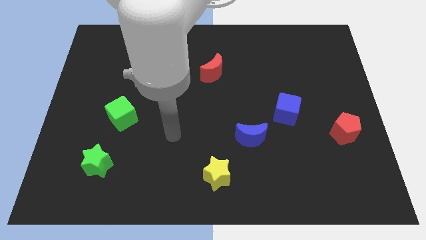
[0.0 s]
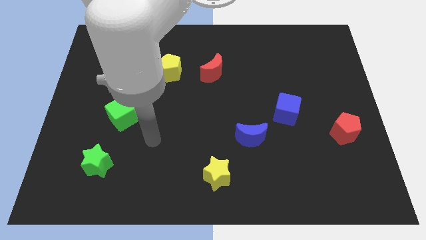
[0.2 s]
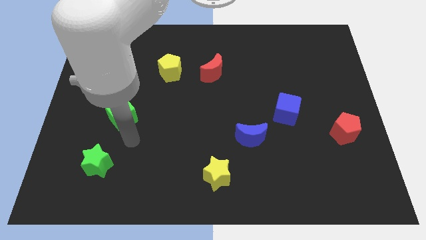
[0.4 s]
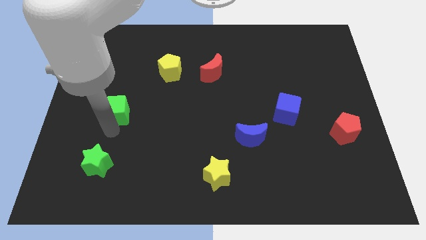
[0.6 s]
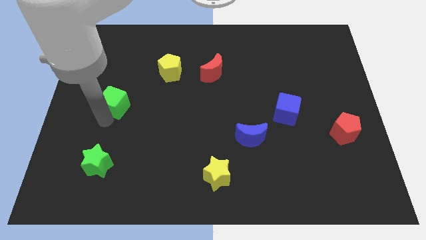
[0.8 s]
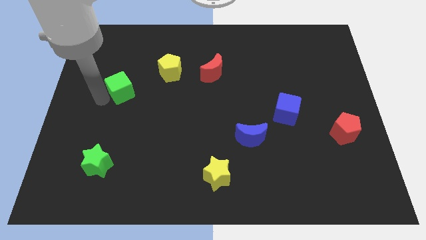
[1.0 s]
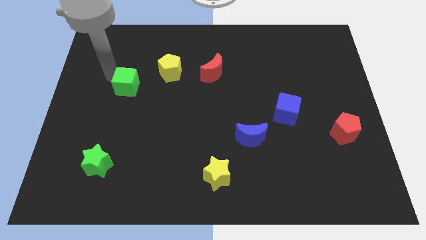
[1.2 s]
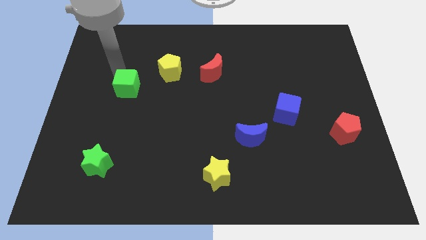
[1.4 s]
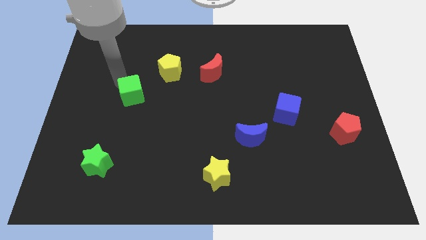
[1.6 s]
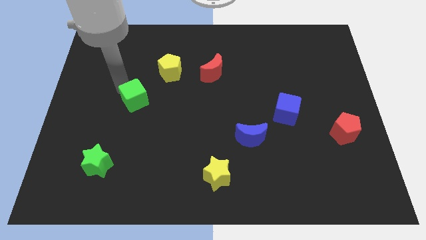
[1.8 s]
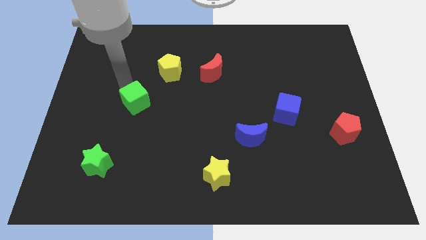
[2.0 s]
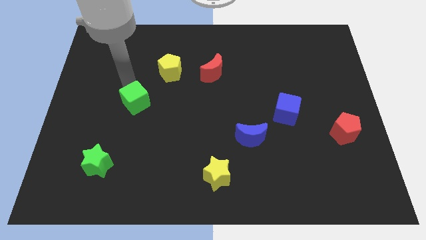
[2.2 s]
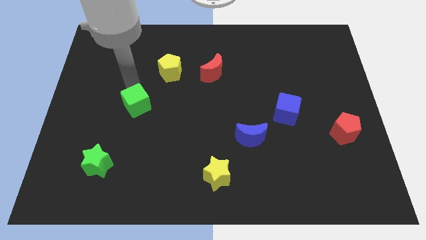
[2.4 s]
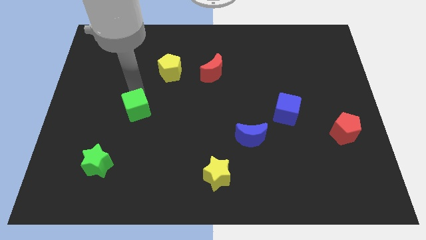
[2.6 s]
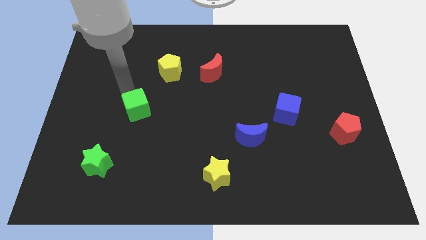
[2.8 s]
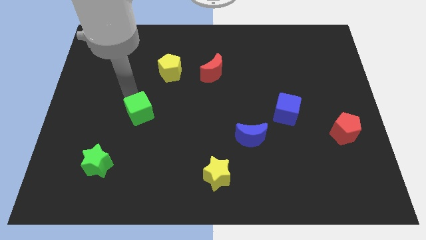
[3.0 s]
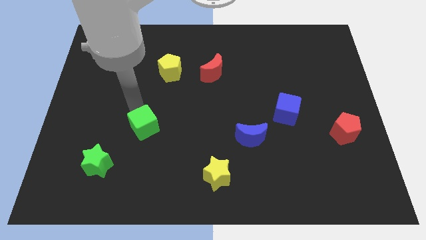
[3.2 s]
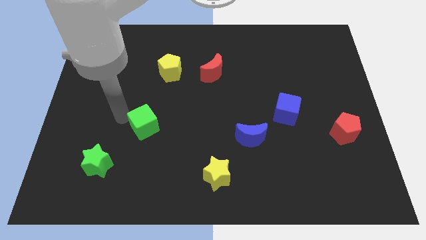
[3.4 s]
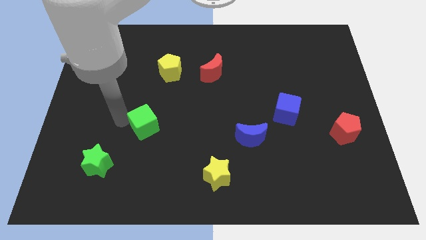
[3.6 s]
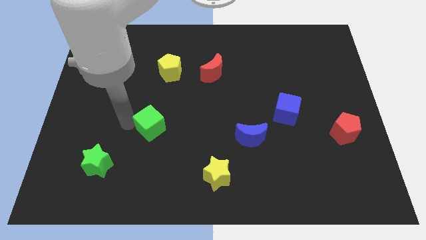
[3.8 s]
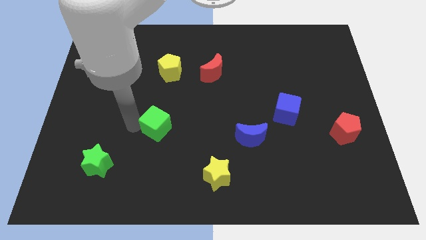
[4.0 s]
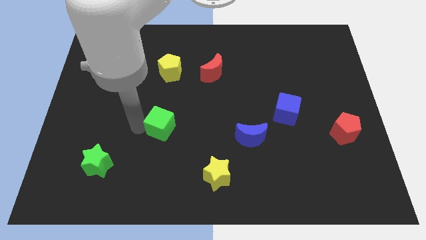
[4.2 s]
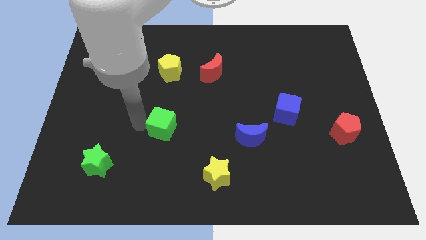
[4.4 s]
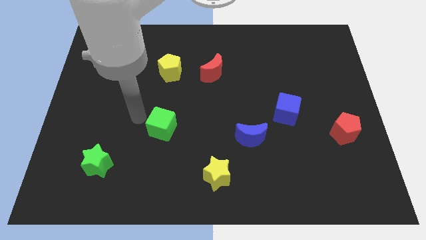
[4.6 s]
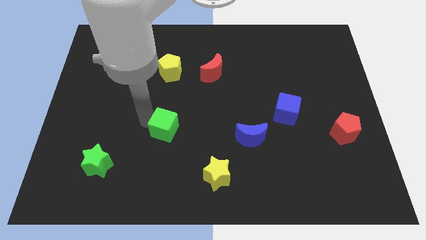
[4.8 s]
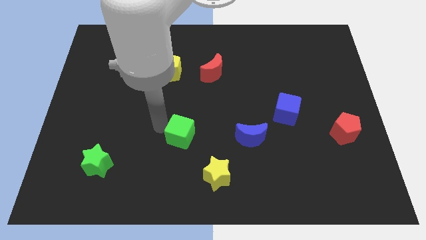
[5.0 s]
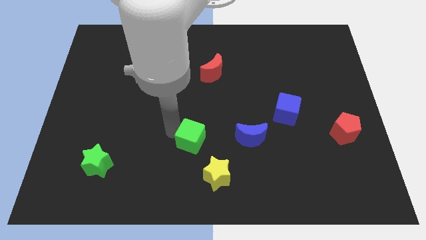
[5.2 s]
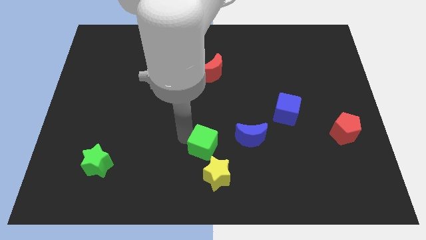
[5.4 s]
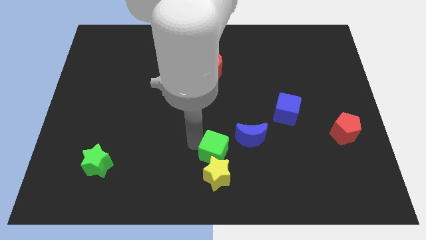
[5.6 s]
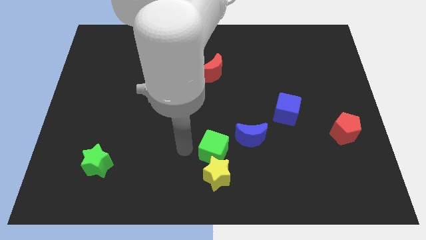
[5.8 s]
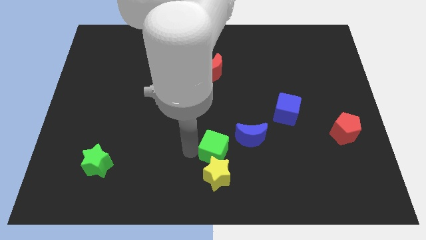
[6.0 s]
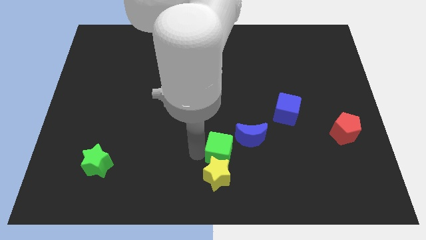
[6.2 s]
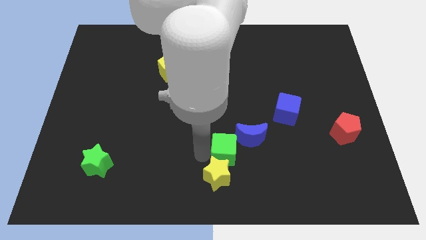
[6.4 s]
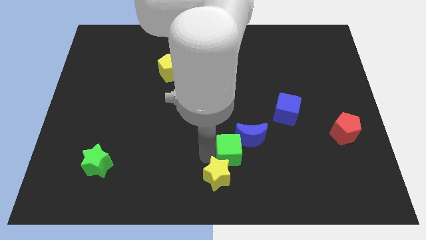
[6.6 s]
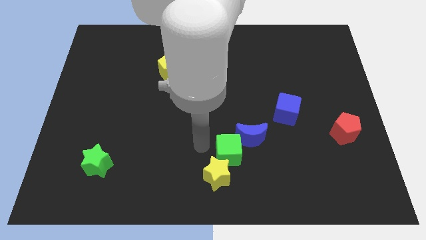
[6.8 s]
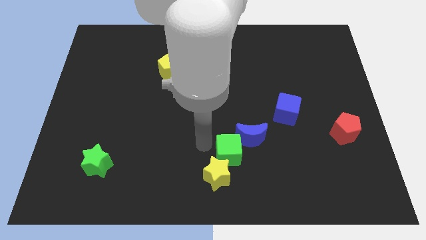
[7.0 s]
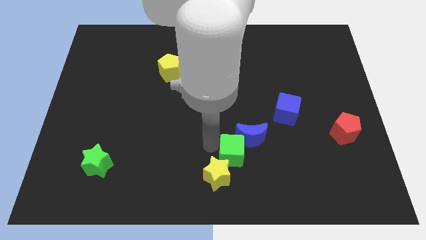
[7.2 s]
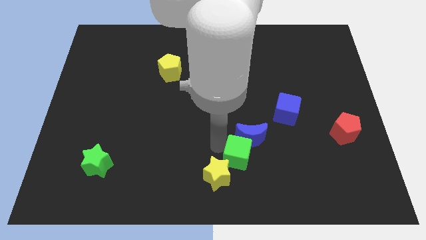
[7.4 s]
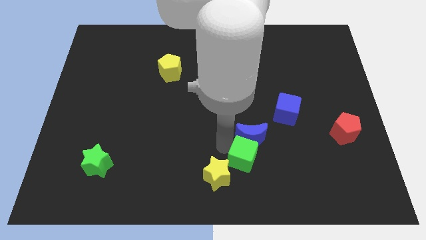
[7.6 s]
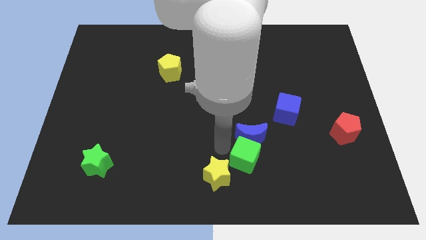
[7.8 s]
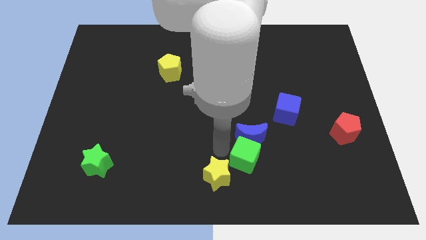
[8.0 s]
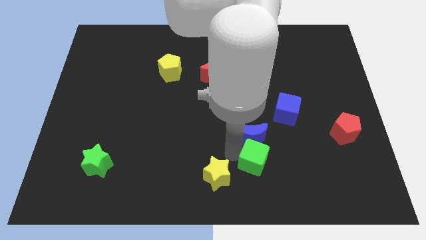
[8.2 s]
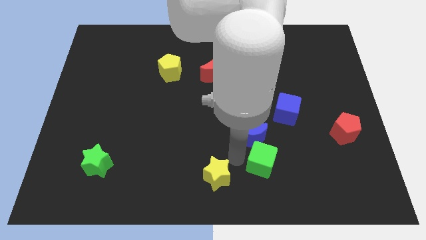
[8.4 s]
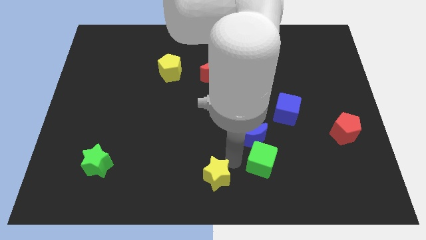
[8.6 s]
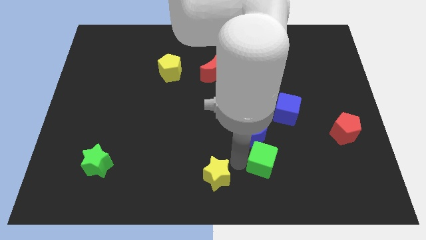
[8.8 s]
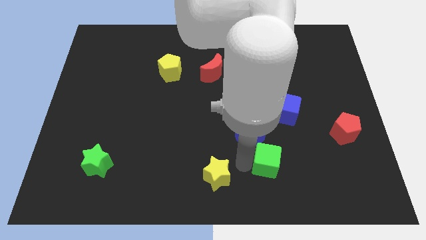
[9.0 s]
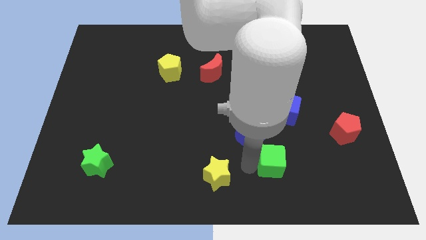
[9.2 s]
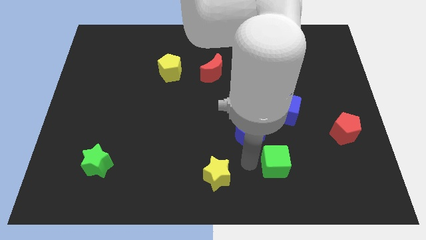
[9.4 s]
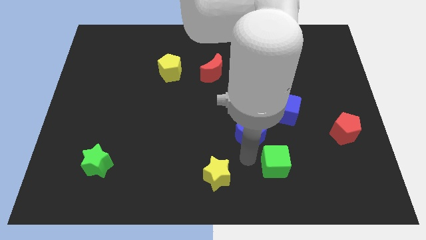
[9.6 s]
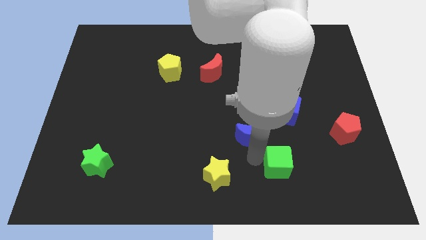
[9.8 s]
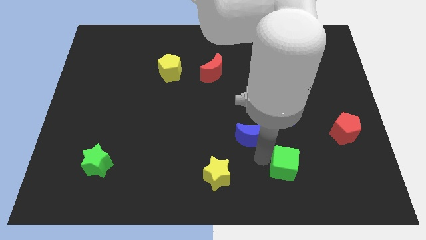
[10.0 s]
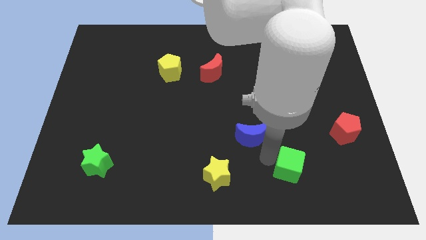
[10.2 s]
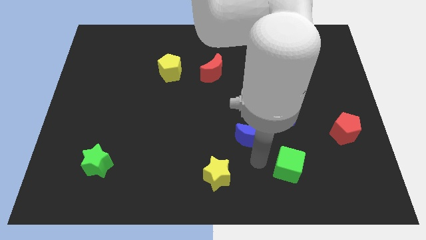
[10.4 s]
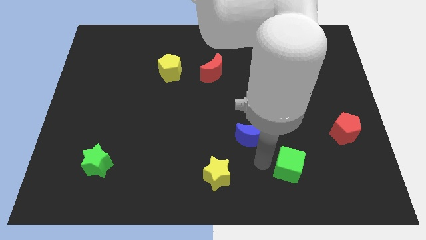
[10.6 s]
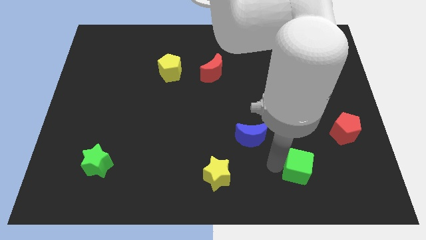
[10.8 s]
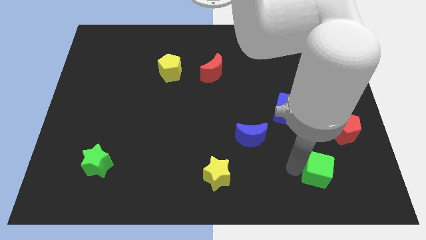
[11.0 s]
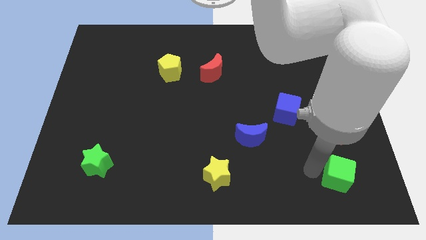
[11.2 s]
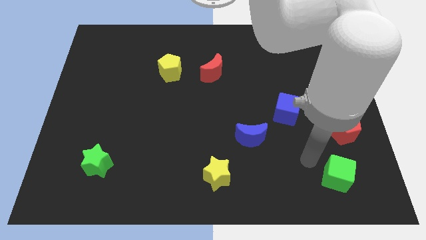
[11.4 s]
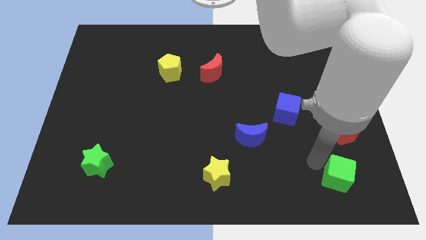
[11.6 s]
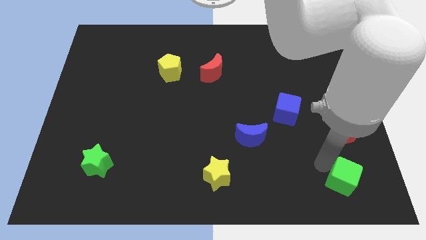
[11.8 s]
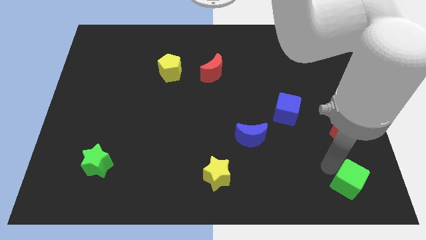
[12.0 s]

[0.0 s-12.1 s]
move the green cube to the bottom right
